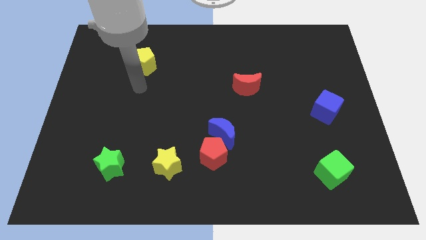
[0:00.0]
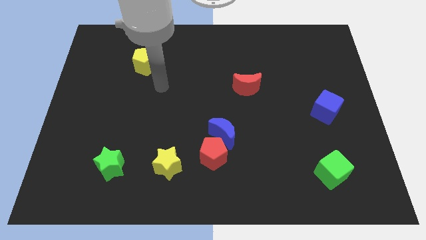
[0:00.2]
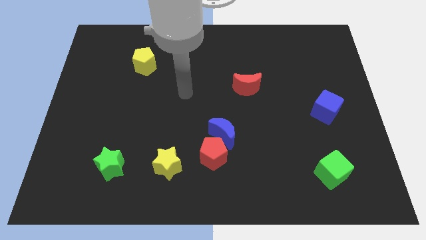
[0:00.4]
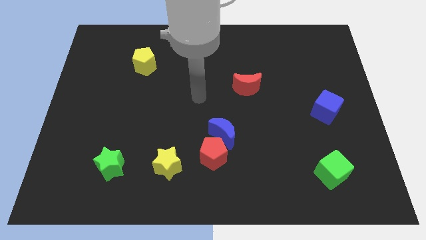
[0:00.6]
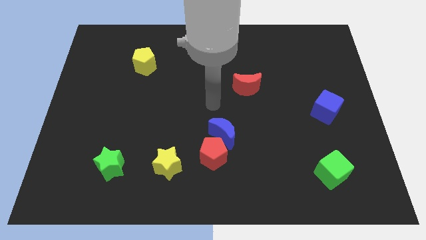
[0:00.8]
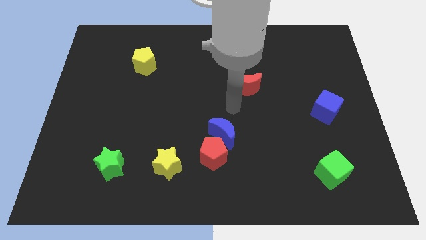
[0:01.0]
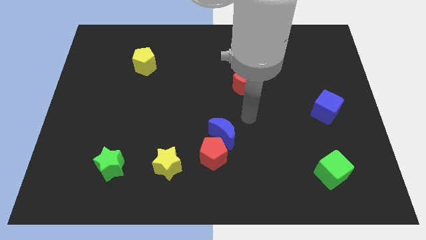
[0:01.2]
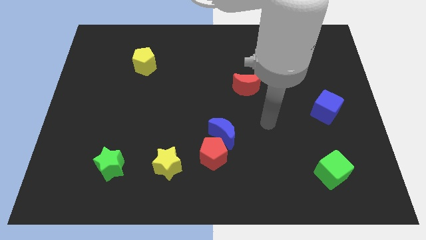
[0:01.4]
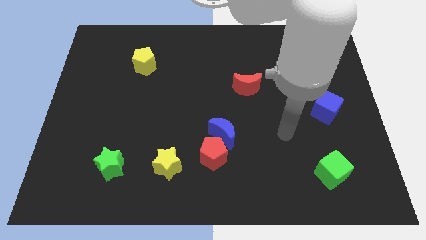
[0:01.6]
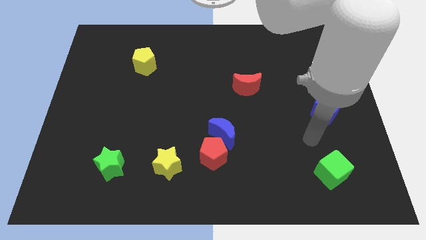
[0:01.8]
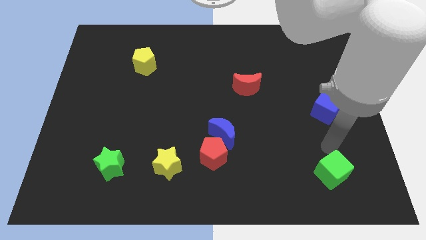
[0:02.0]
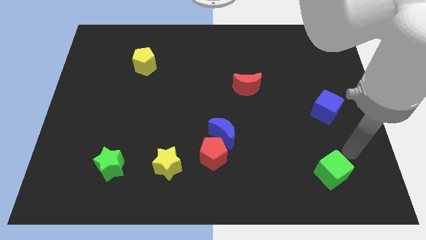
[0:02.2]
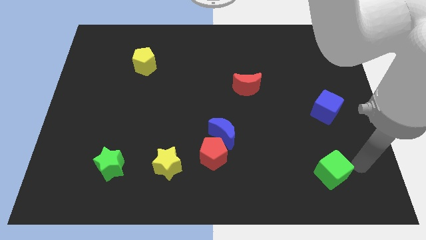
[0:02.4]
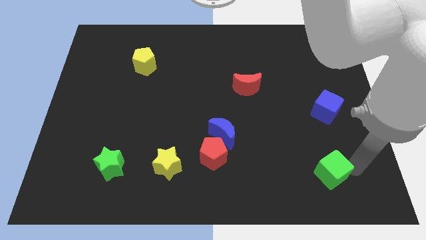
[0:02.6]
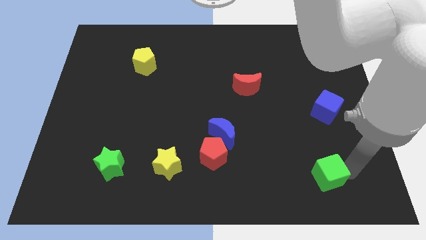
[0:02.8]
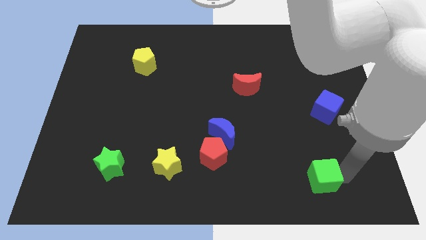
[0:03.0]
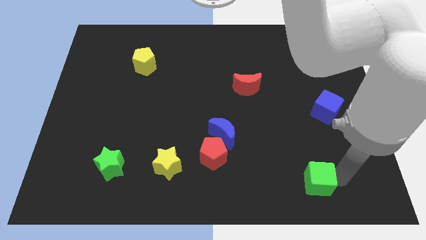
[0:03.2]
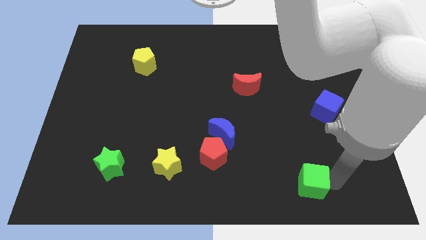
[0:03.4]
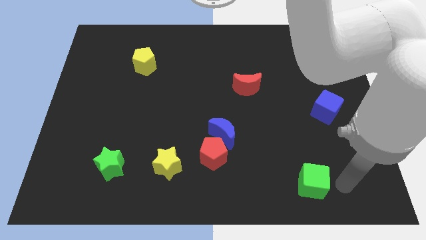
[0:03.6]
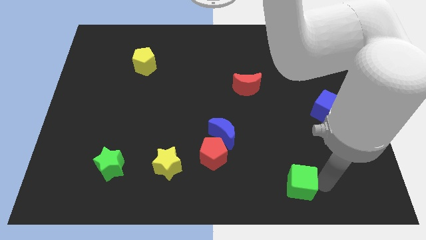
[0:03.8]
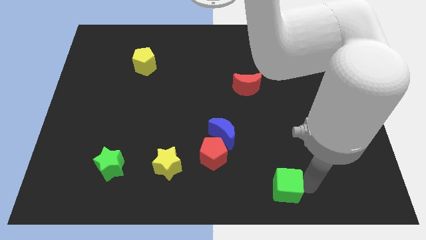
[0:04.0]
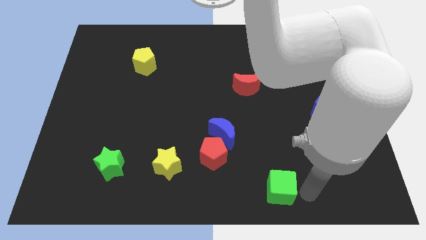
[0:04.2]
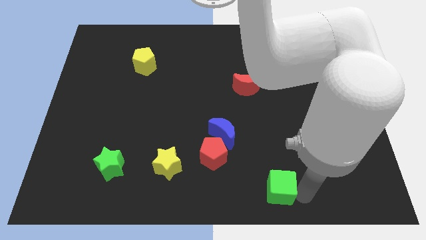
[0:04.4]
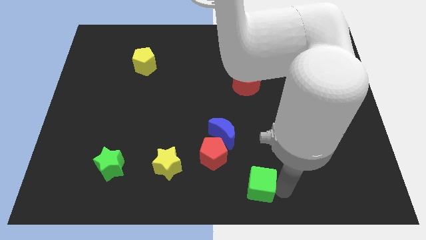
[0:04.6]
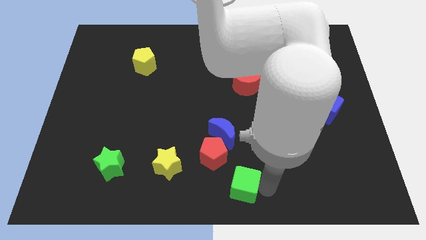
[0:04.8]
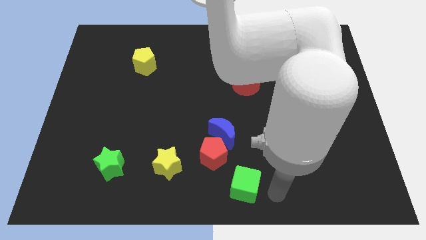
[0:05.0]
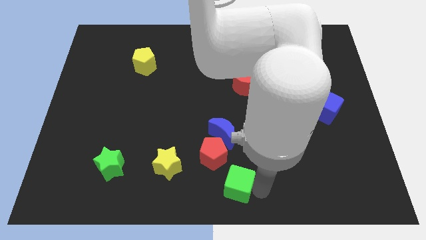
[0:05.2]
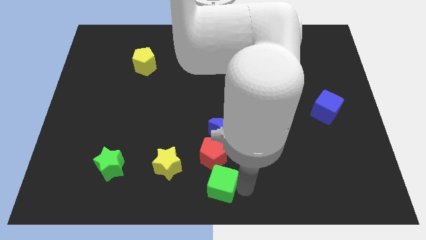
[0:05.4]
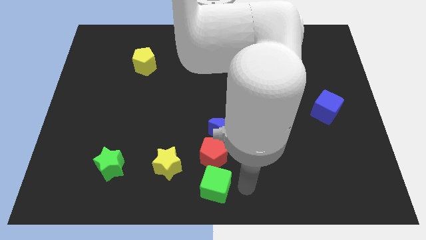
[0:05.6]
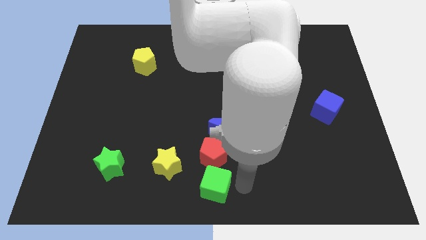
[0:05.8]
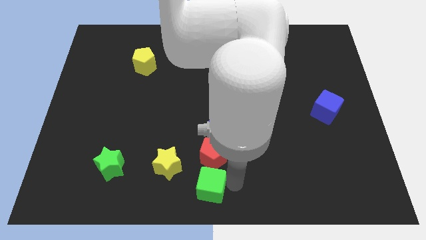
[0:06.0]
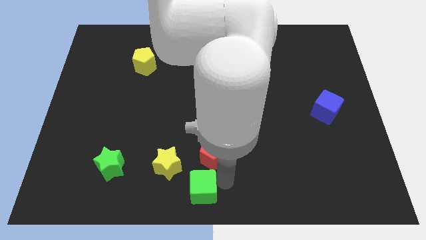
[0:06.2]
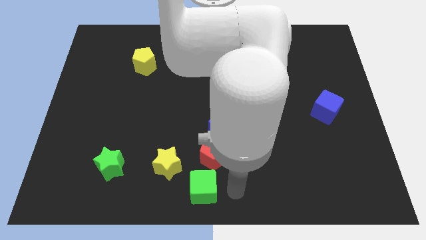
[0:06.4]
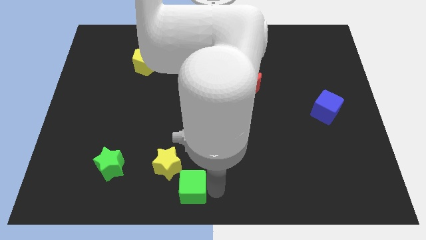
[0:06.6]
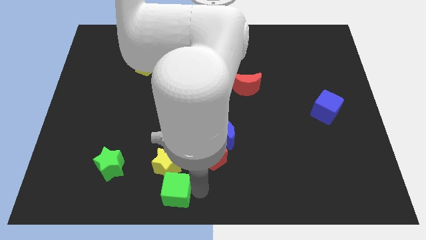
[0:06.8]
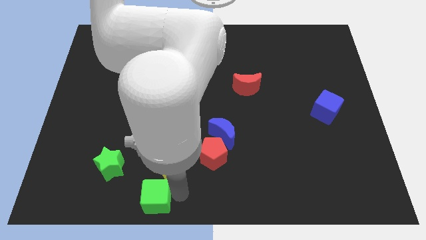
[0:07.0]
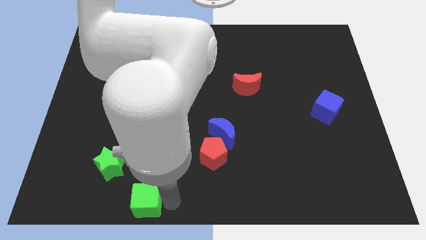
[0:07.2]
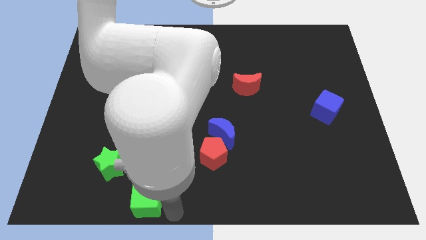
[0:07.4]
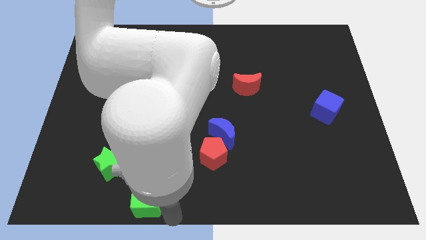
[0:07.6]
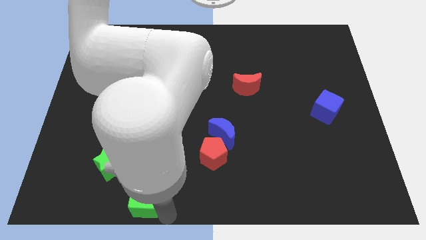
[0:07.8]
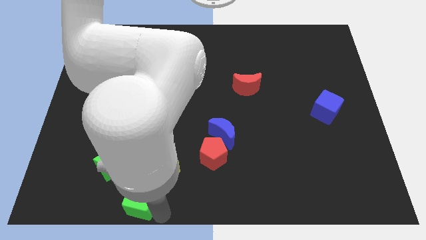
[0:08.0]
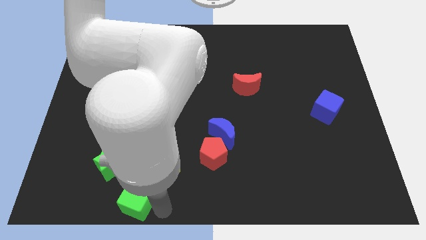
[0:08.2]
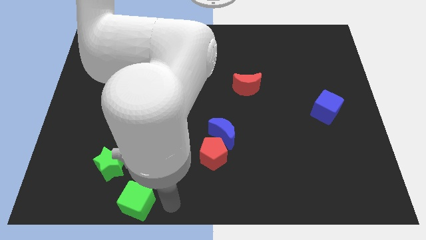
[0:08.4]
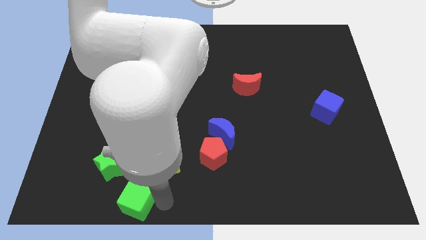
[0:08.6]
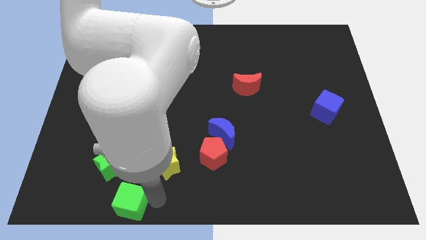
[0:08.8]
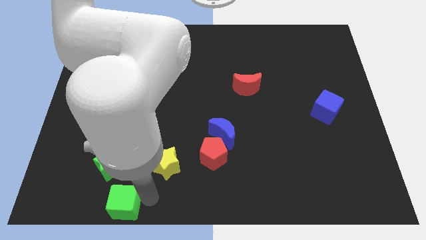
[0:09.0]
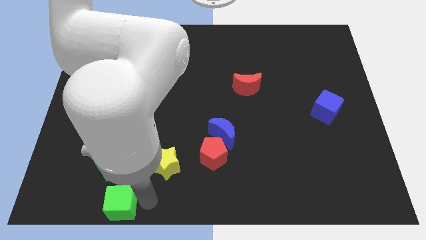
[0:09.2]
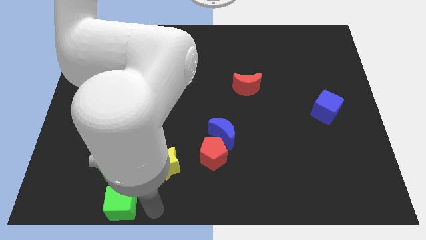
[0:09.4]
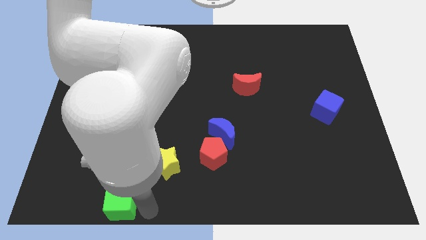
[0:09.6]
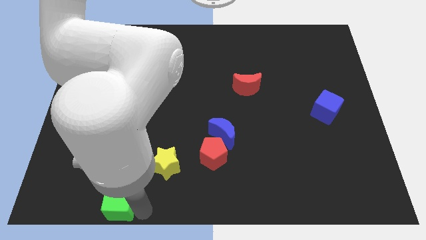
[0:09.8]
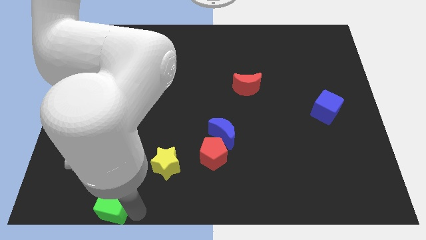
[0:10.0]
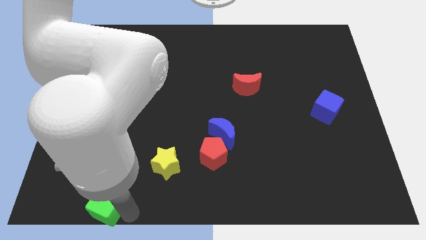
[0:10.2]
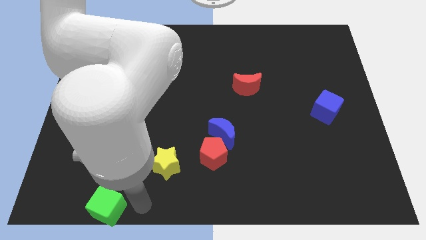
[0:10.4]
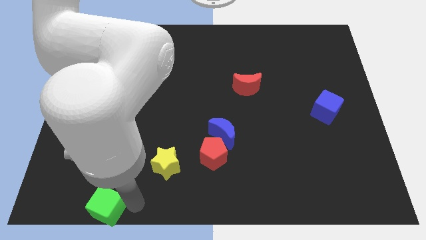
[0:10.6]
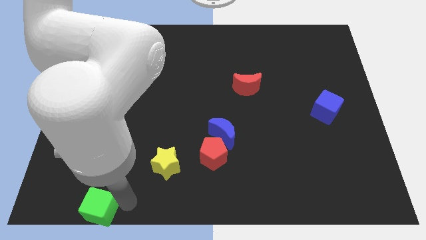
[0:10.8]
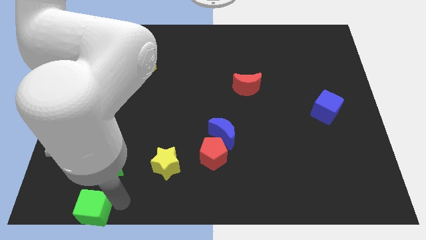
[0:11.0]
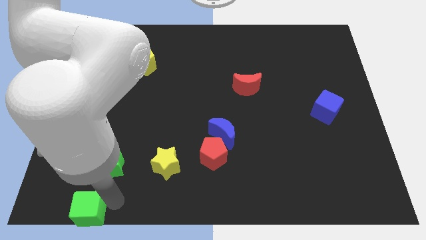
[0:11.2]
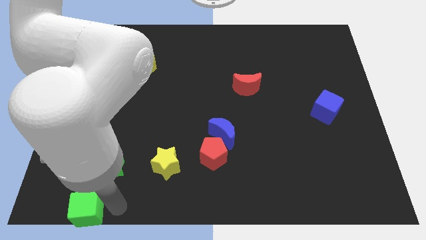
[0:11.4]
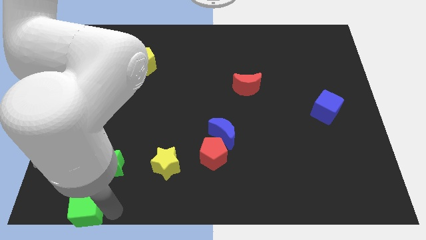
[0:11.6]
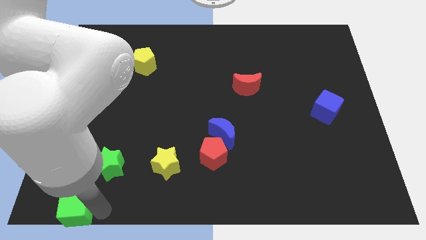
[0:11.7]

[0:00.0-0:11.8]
move the green cube to the bottom left of the board
